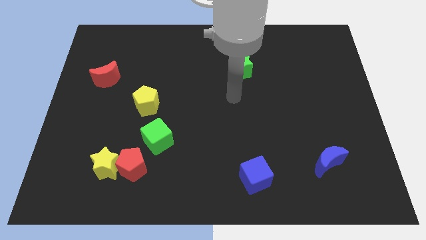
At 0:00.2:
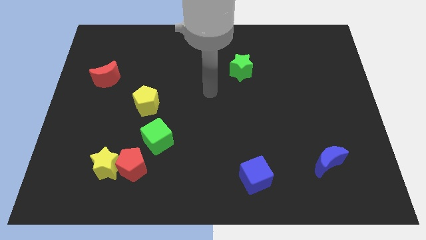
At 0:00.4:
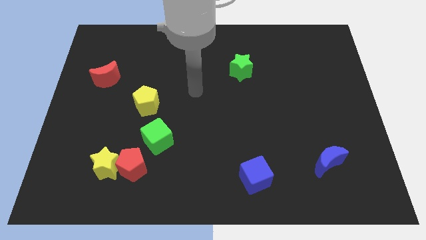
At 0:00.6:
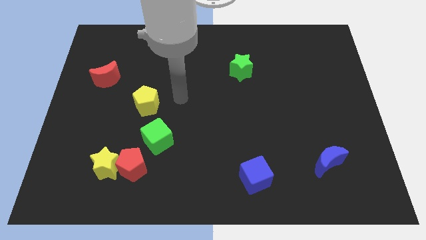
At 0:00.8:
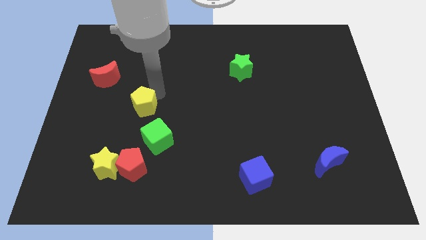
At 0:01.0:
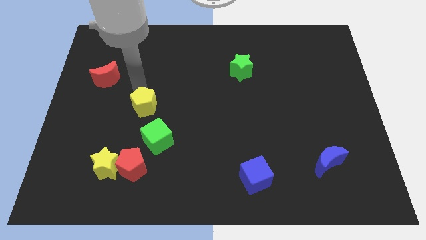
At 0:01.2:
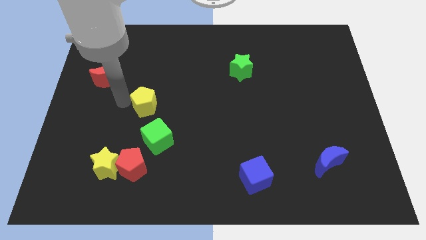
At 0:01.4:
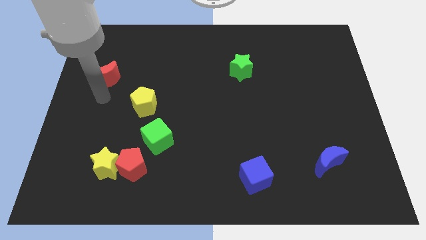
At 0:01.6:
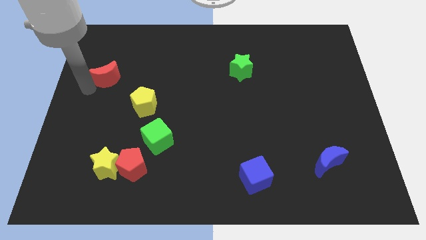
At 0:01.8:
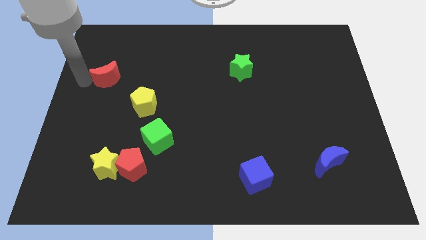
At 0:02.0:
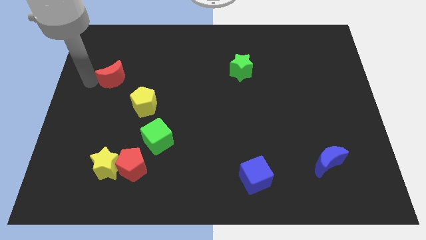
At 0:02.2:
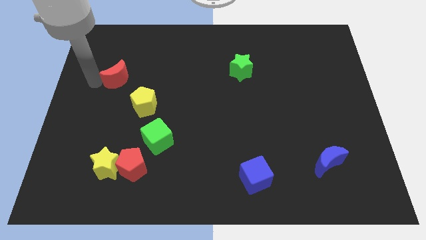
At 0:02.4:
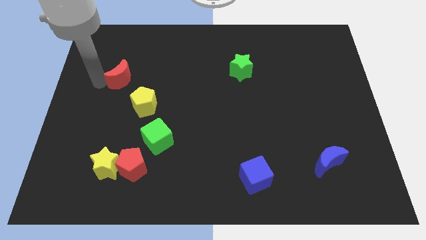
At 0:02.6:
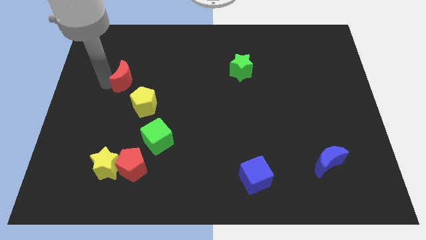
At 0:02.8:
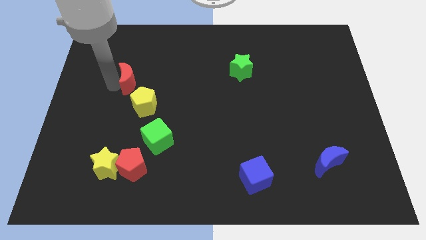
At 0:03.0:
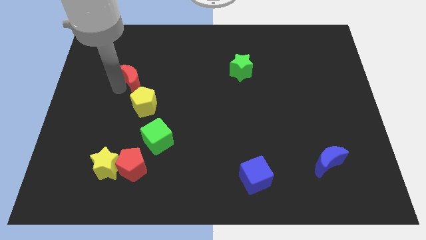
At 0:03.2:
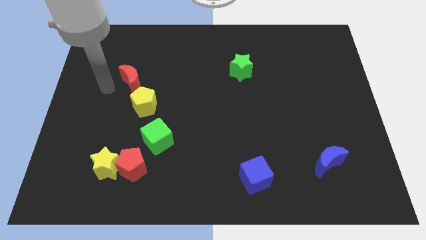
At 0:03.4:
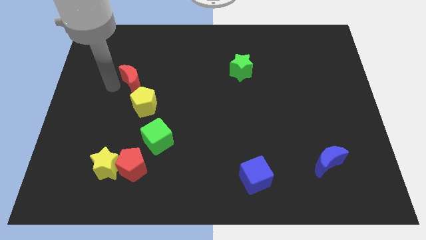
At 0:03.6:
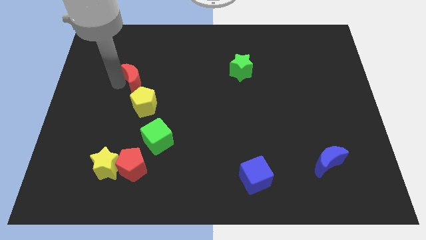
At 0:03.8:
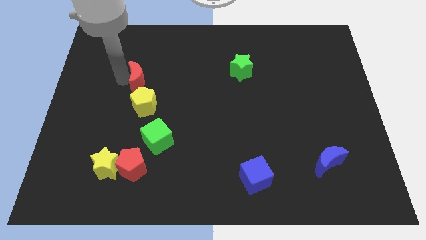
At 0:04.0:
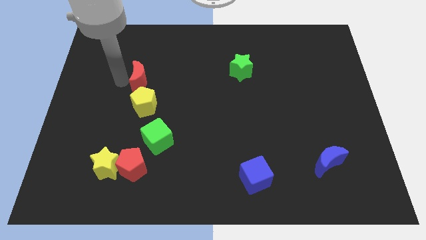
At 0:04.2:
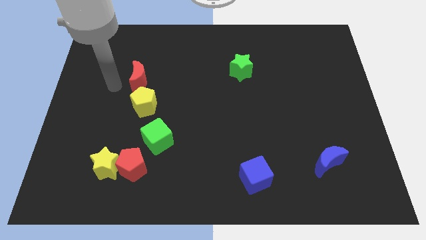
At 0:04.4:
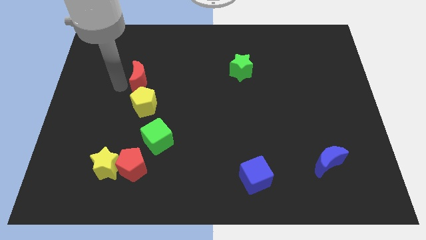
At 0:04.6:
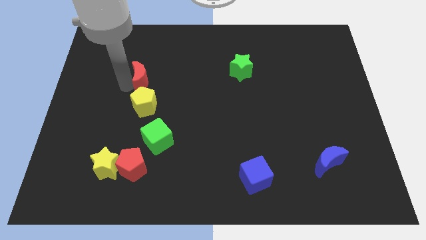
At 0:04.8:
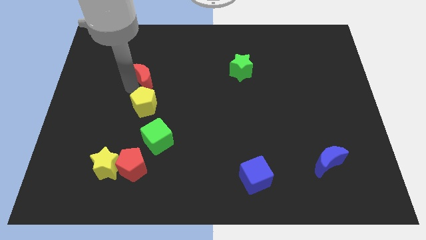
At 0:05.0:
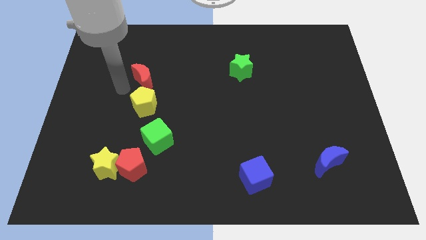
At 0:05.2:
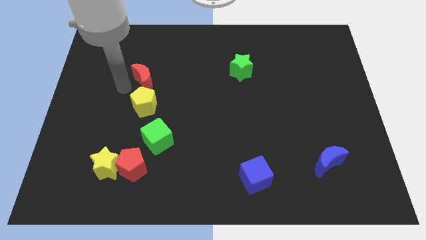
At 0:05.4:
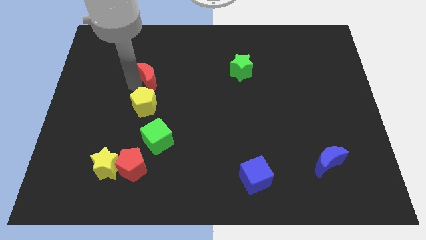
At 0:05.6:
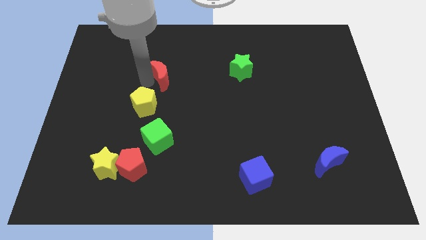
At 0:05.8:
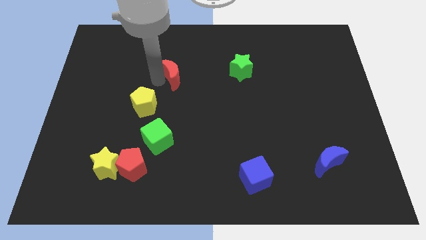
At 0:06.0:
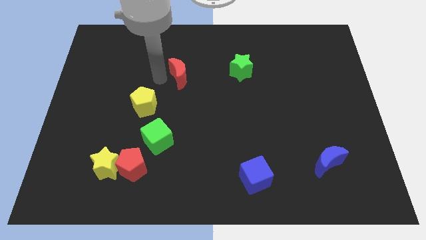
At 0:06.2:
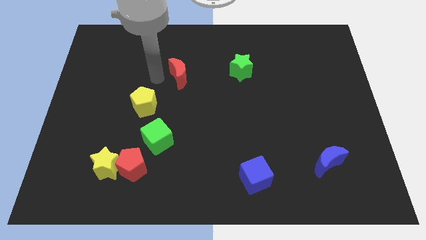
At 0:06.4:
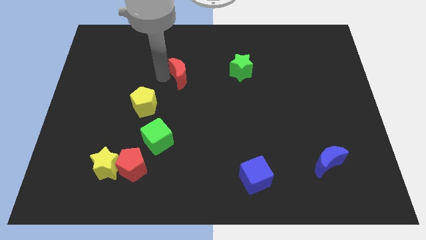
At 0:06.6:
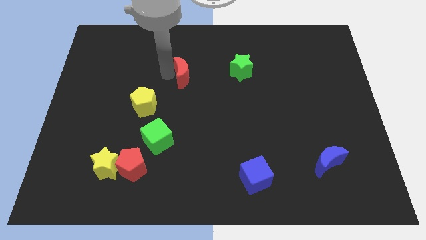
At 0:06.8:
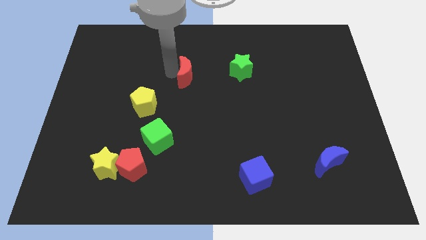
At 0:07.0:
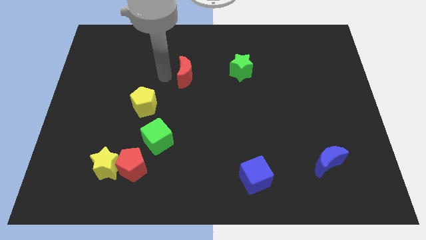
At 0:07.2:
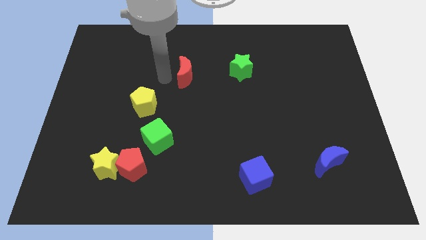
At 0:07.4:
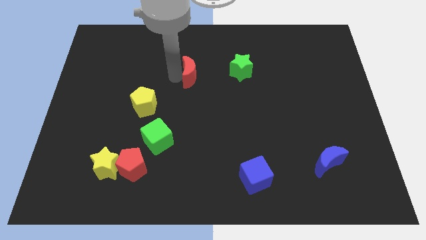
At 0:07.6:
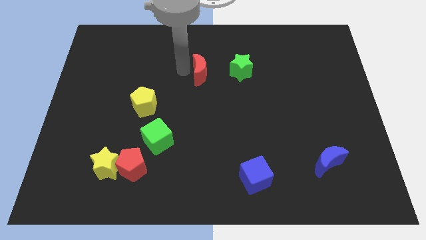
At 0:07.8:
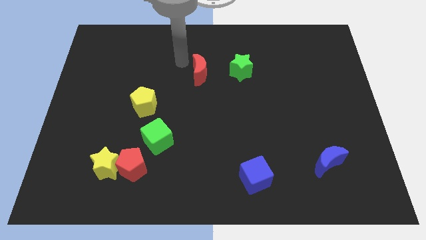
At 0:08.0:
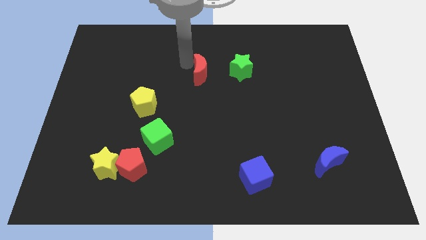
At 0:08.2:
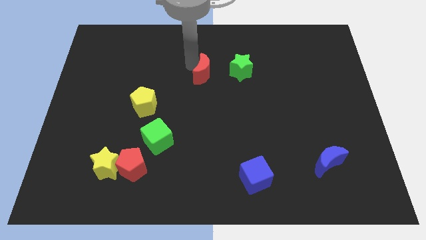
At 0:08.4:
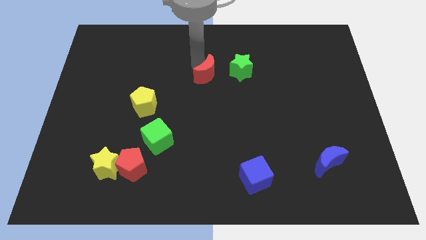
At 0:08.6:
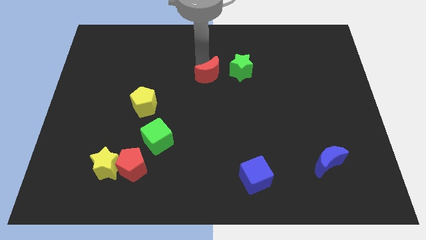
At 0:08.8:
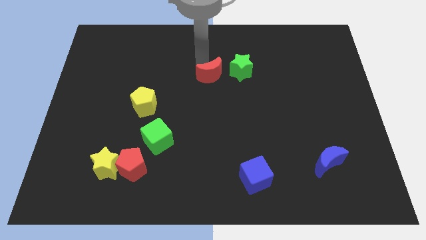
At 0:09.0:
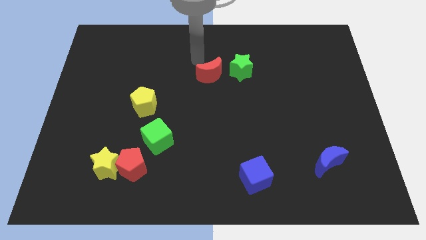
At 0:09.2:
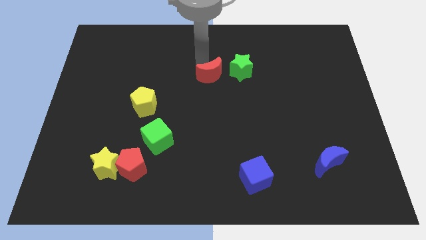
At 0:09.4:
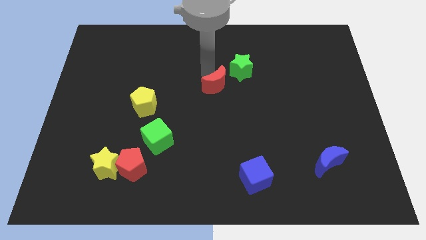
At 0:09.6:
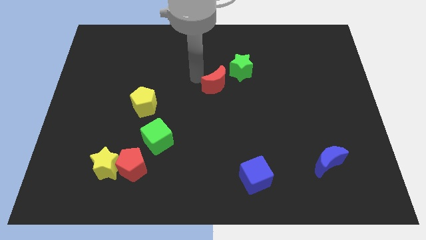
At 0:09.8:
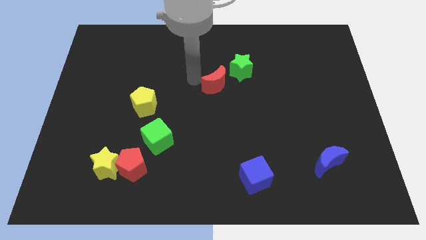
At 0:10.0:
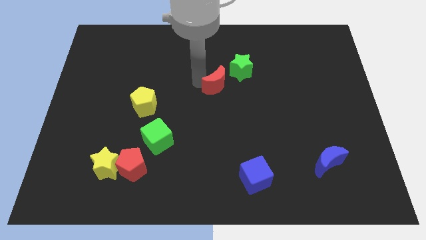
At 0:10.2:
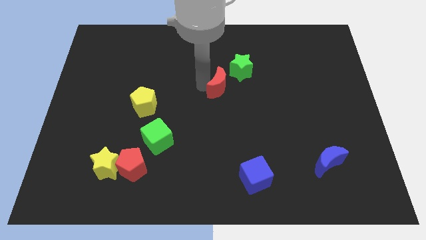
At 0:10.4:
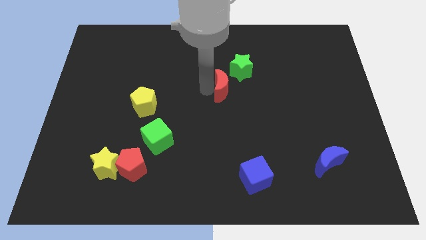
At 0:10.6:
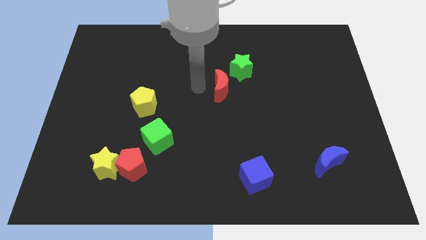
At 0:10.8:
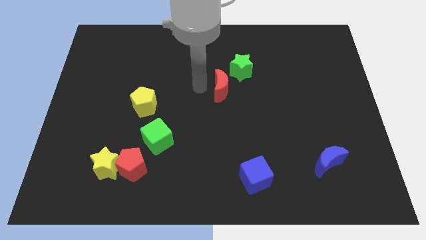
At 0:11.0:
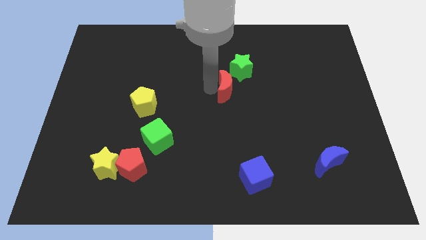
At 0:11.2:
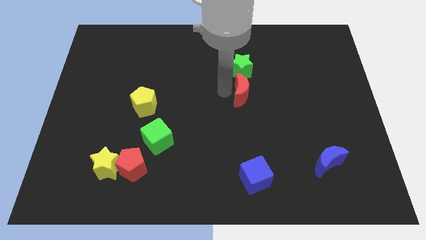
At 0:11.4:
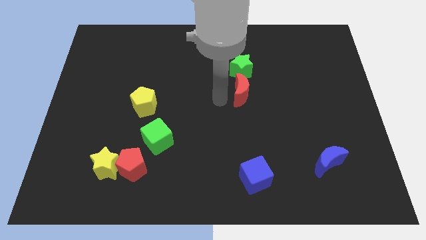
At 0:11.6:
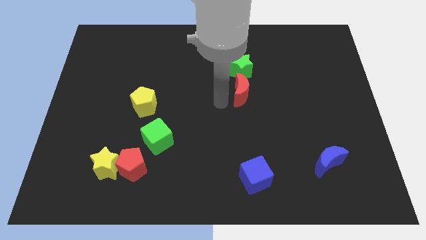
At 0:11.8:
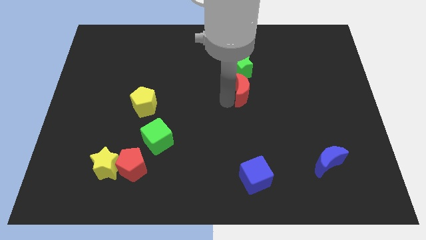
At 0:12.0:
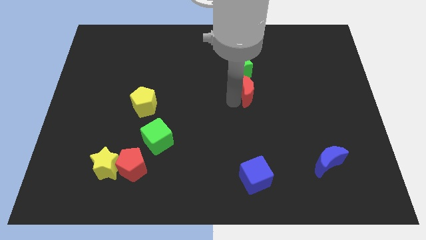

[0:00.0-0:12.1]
put the red moon to the bottom right side of the green star

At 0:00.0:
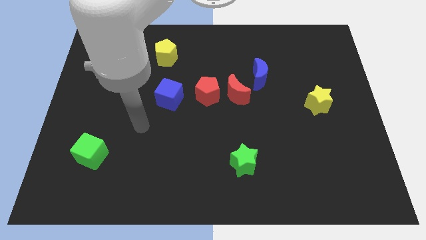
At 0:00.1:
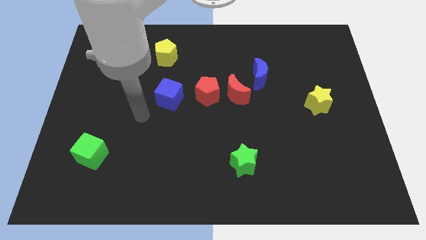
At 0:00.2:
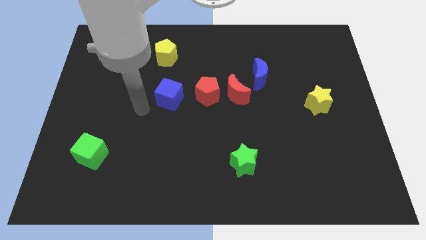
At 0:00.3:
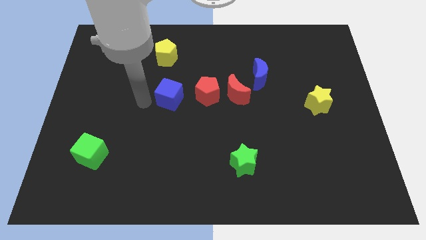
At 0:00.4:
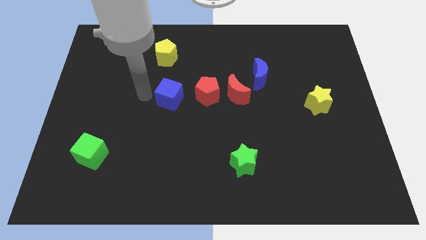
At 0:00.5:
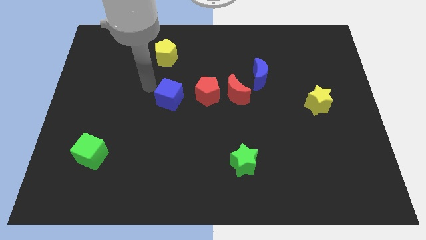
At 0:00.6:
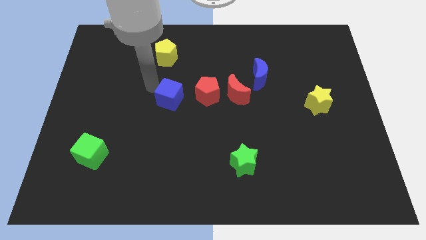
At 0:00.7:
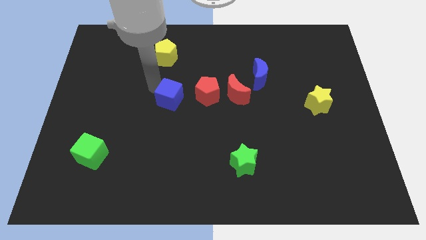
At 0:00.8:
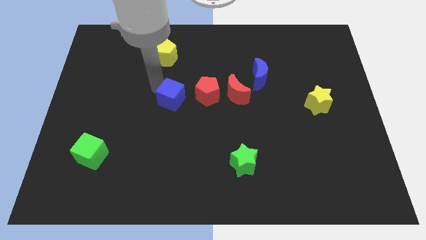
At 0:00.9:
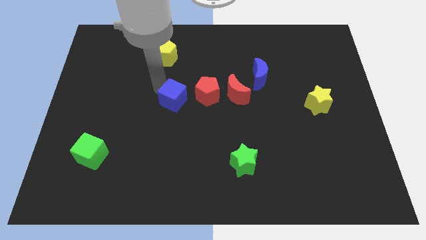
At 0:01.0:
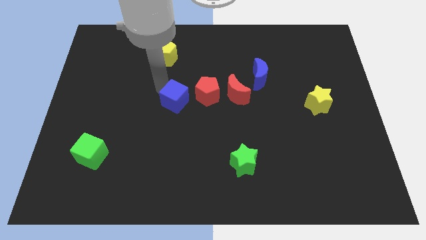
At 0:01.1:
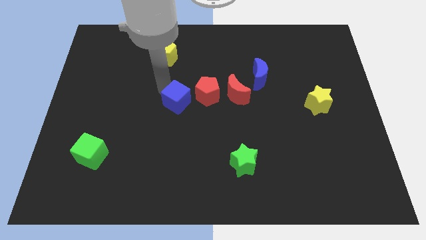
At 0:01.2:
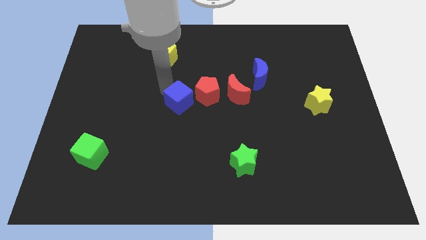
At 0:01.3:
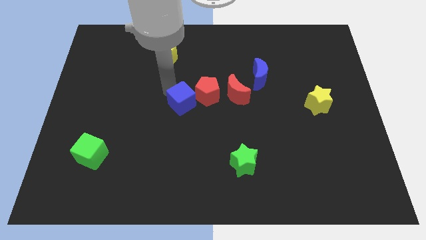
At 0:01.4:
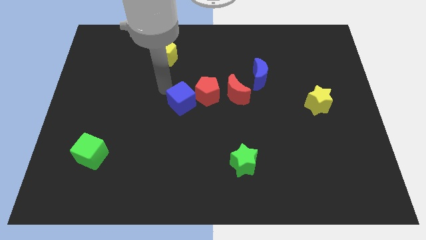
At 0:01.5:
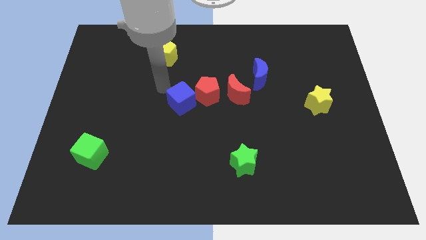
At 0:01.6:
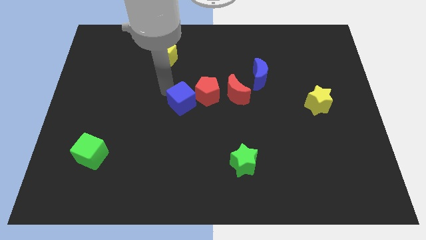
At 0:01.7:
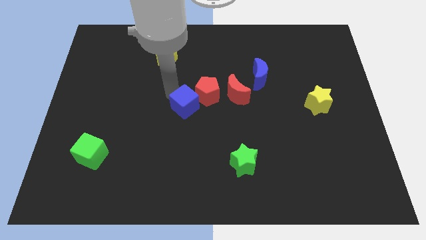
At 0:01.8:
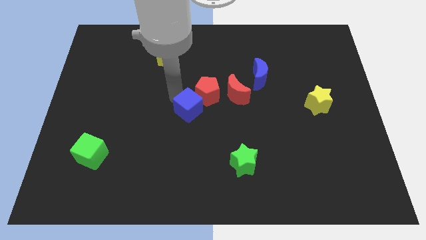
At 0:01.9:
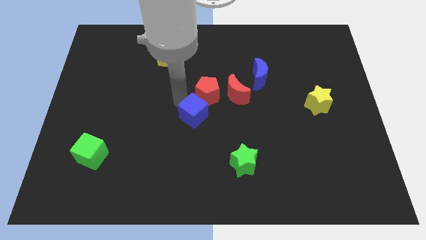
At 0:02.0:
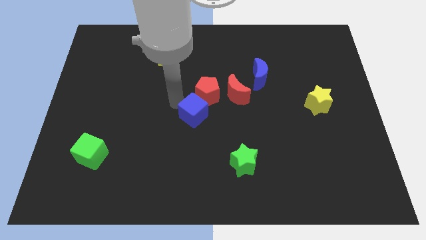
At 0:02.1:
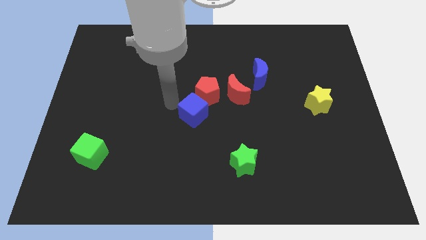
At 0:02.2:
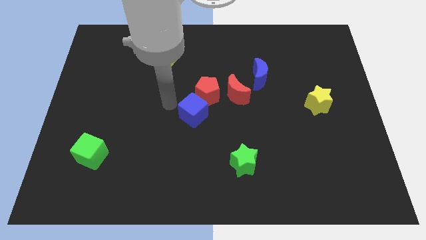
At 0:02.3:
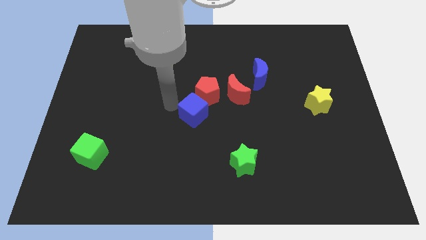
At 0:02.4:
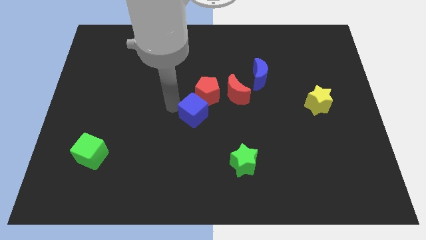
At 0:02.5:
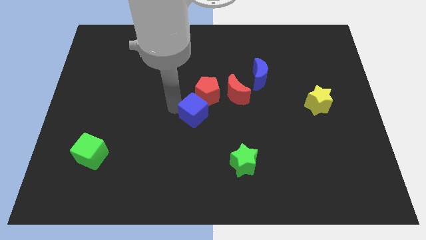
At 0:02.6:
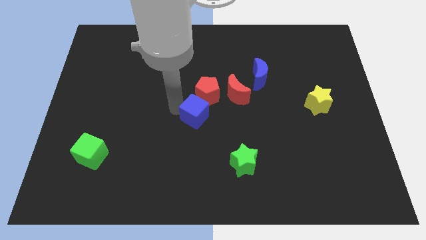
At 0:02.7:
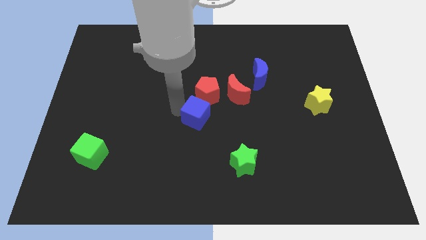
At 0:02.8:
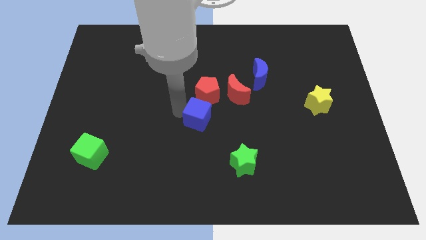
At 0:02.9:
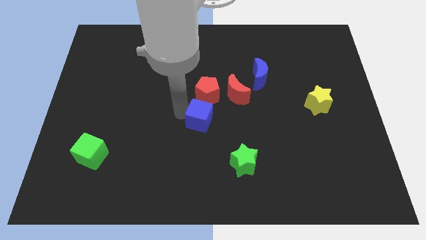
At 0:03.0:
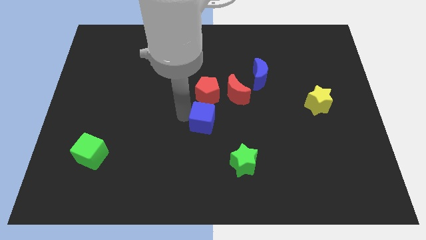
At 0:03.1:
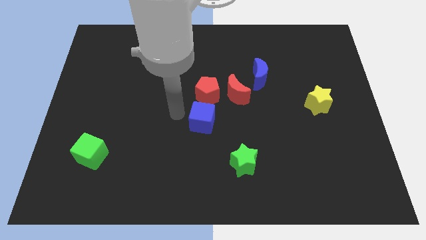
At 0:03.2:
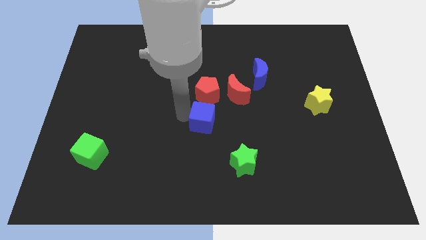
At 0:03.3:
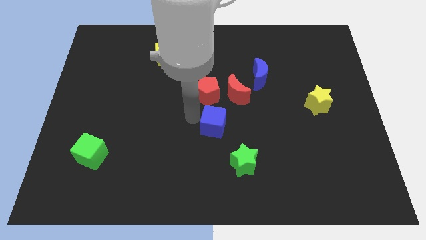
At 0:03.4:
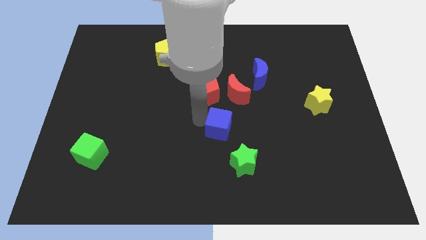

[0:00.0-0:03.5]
put the blue cube below the red moon
